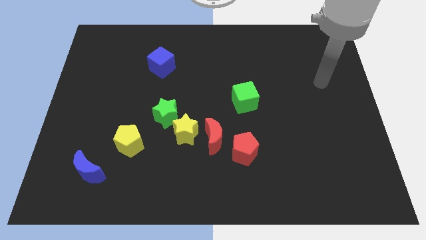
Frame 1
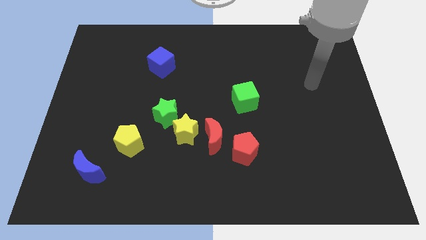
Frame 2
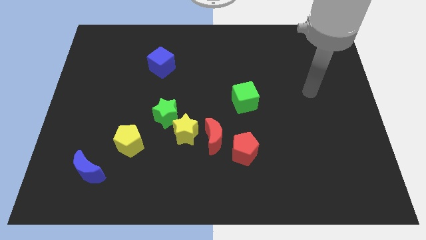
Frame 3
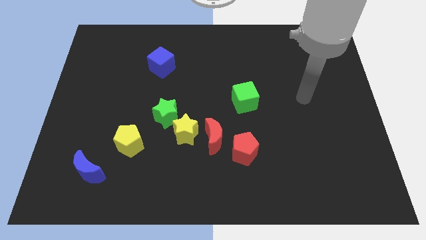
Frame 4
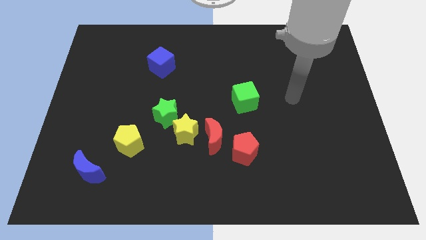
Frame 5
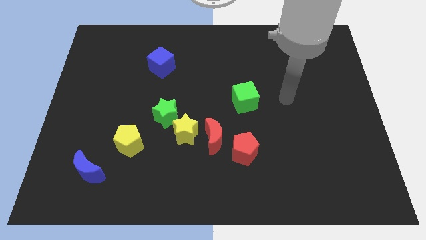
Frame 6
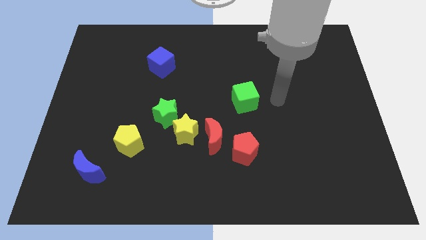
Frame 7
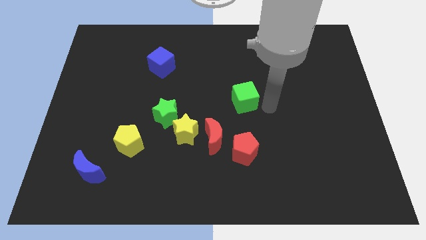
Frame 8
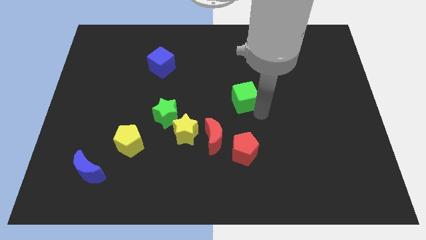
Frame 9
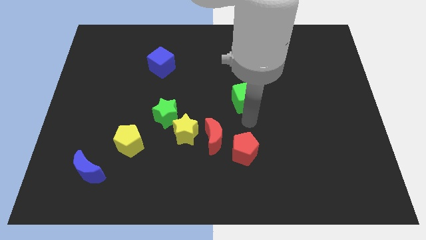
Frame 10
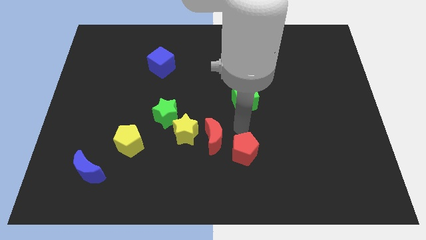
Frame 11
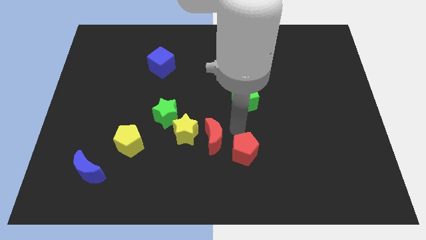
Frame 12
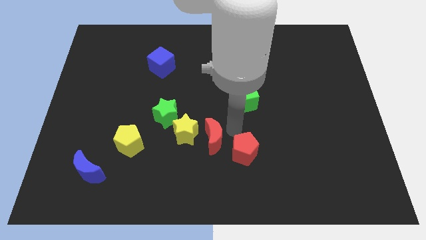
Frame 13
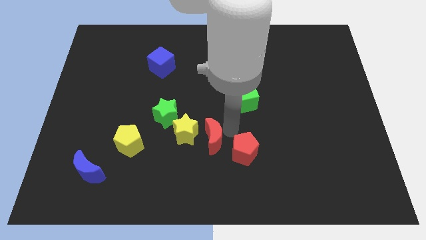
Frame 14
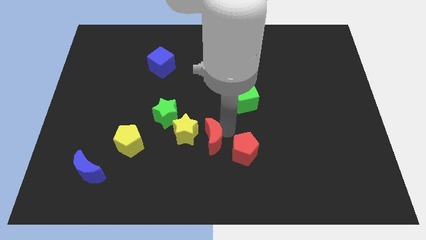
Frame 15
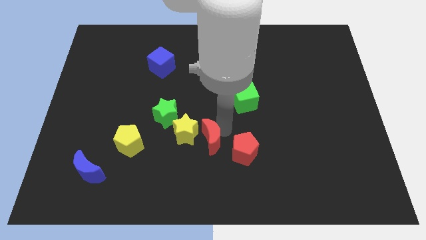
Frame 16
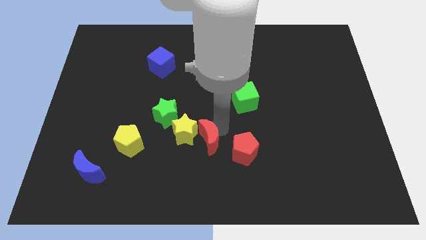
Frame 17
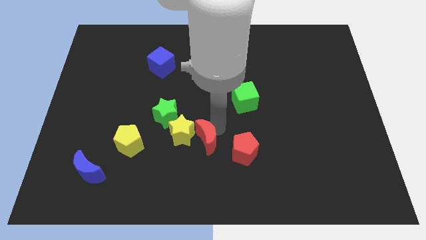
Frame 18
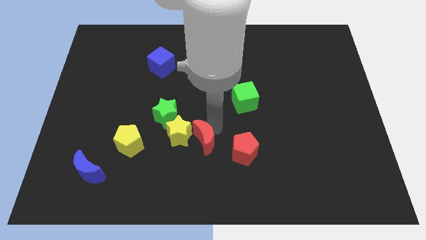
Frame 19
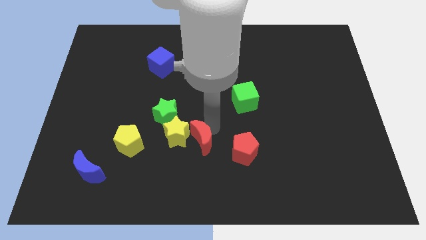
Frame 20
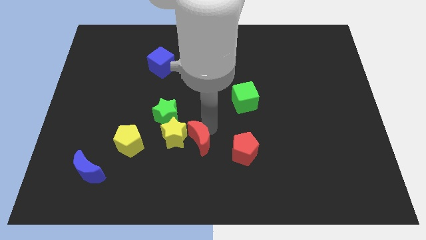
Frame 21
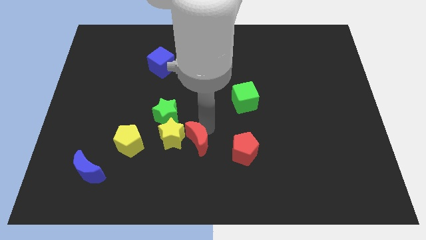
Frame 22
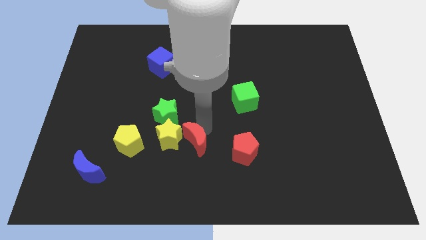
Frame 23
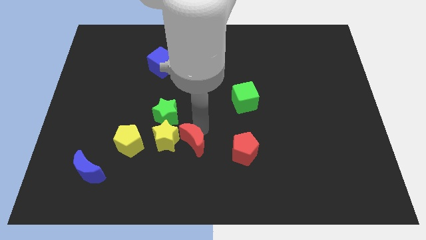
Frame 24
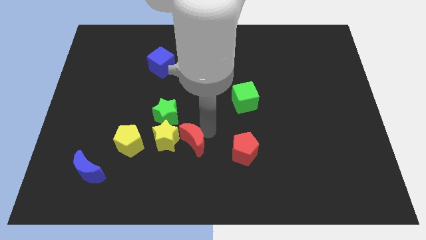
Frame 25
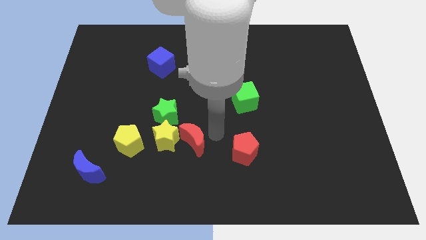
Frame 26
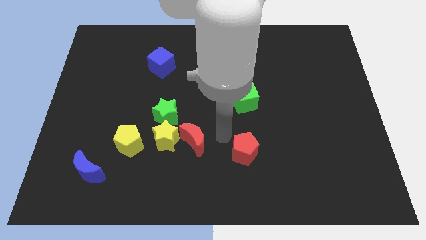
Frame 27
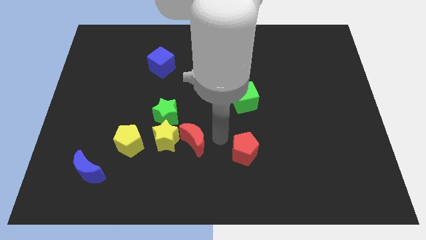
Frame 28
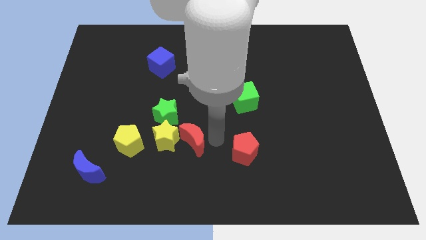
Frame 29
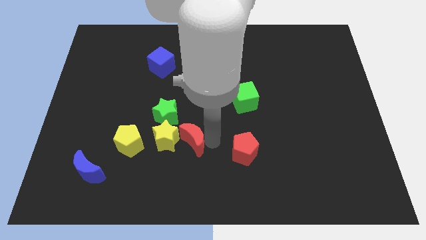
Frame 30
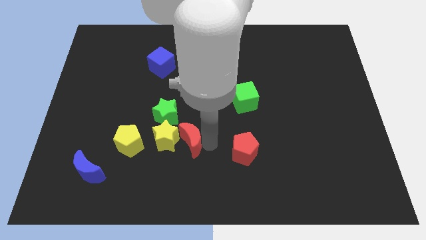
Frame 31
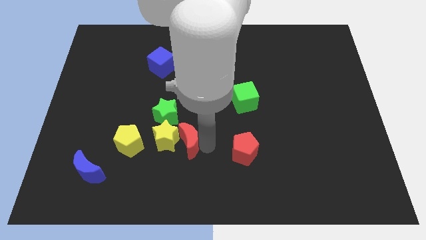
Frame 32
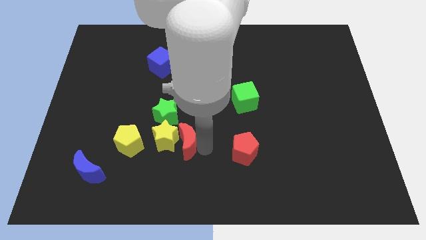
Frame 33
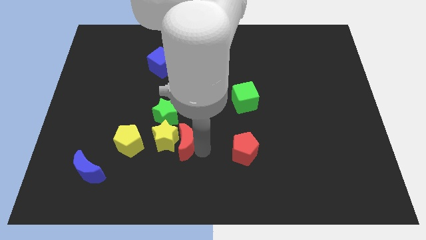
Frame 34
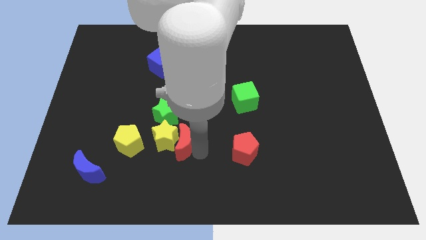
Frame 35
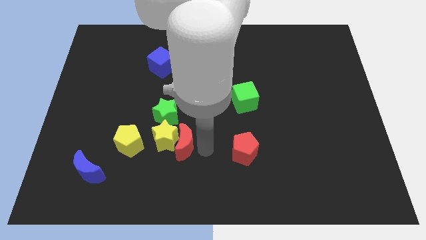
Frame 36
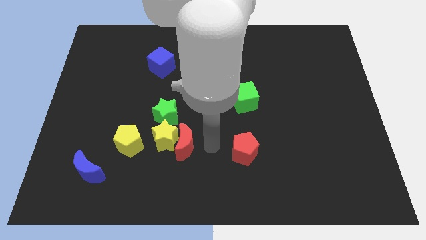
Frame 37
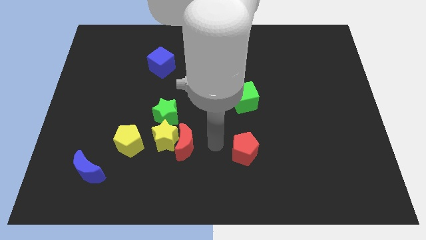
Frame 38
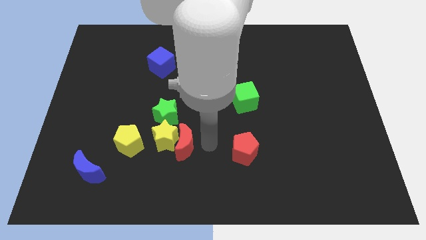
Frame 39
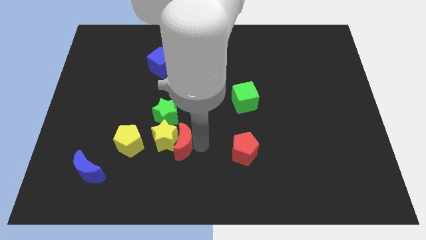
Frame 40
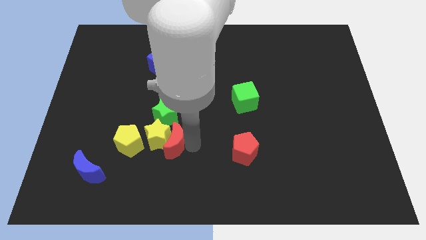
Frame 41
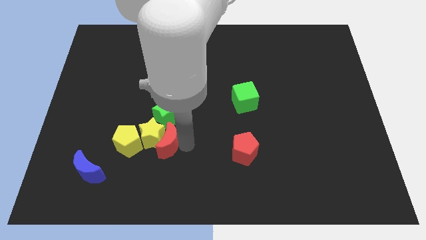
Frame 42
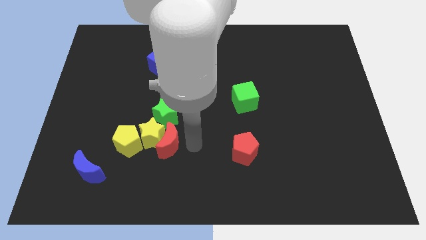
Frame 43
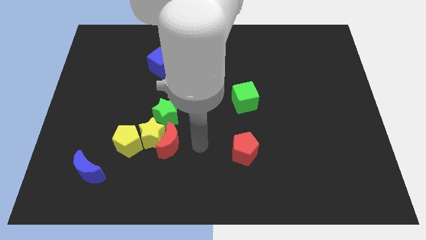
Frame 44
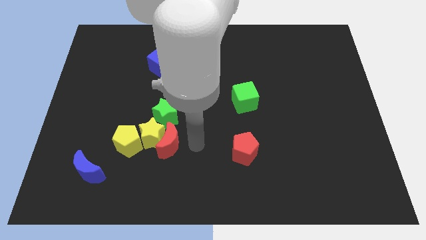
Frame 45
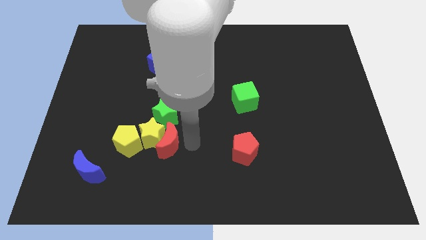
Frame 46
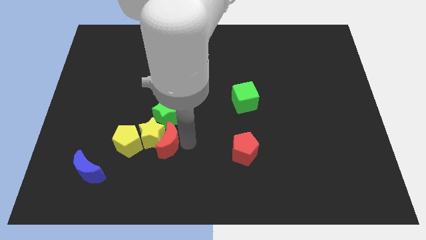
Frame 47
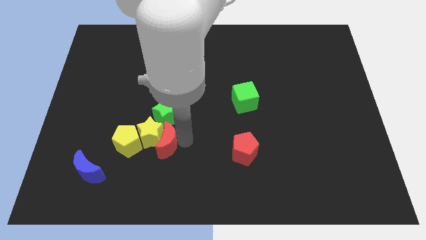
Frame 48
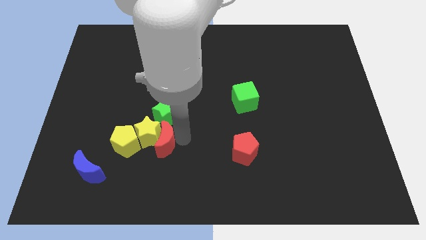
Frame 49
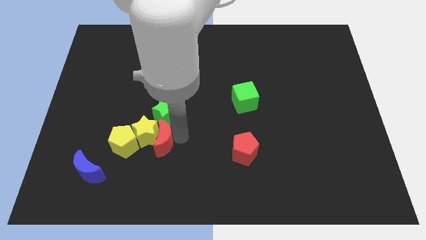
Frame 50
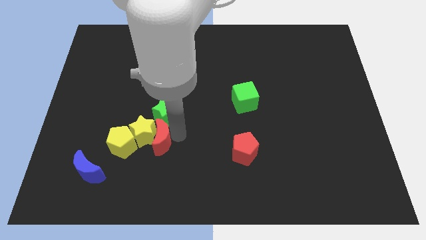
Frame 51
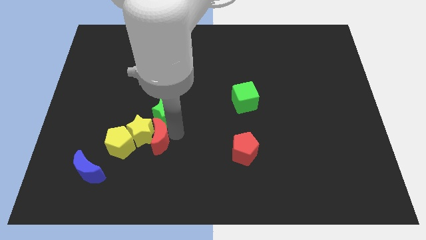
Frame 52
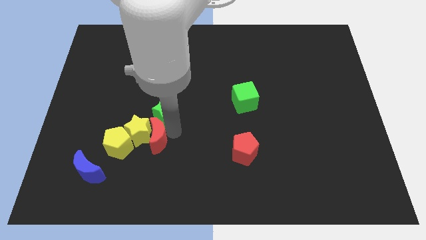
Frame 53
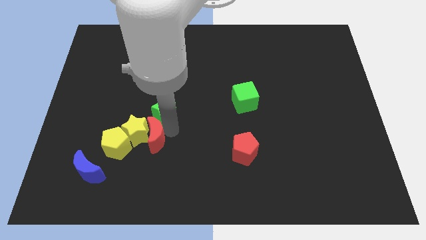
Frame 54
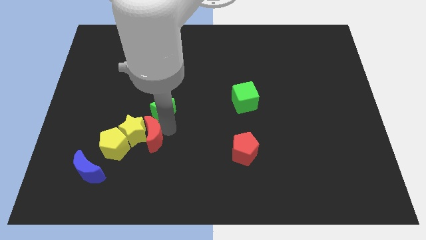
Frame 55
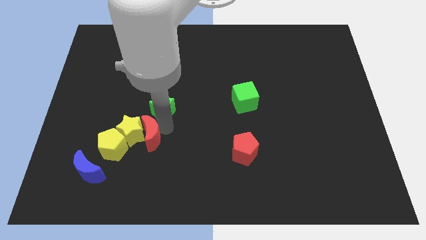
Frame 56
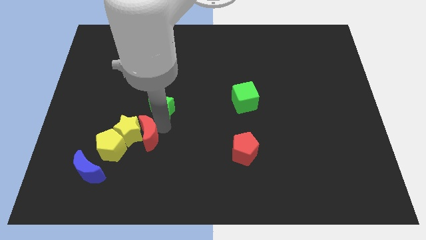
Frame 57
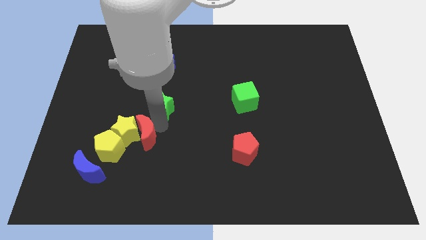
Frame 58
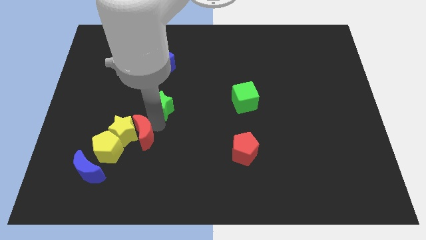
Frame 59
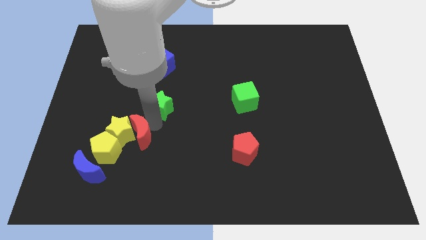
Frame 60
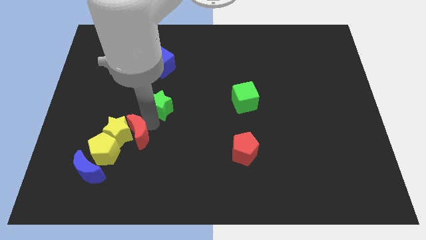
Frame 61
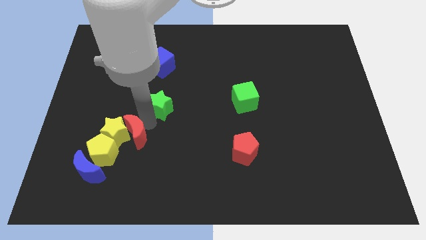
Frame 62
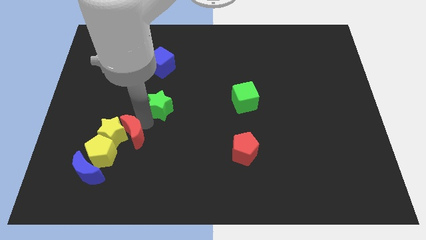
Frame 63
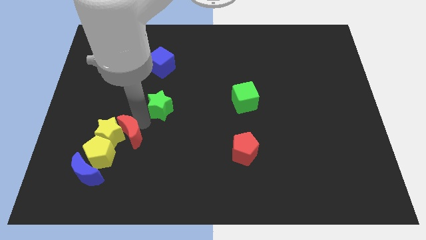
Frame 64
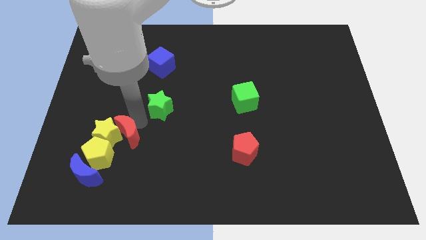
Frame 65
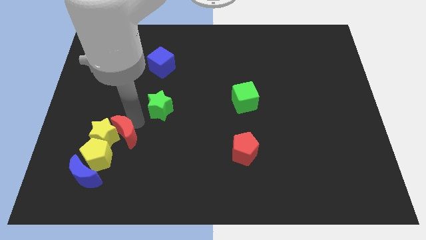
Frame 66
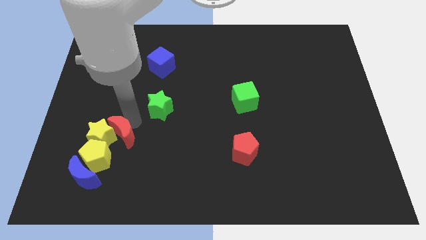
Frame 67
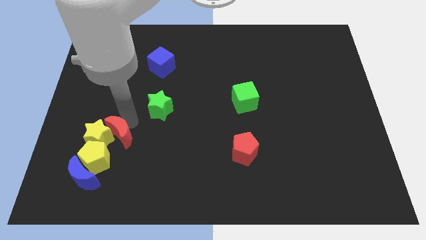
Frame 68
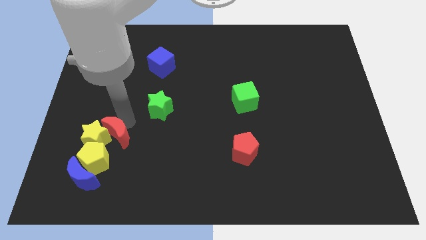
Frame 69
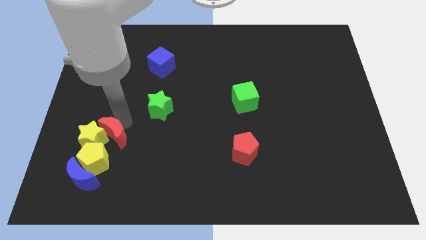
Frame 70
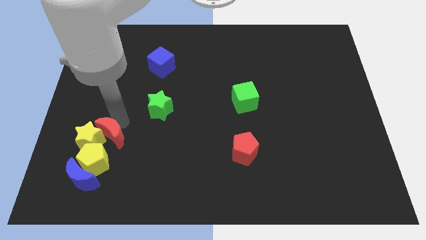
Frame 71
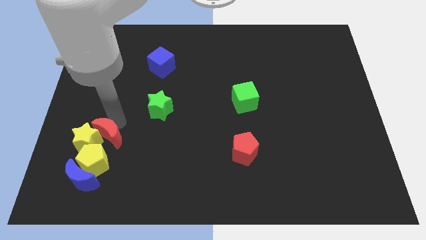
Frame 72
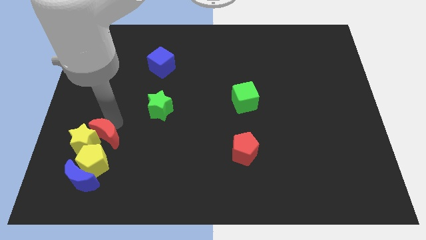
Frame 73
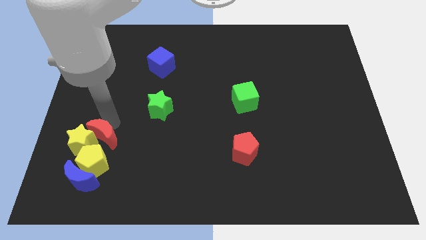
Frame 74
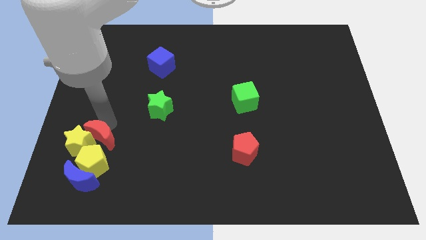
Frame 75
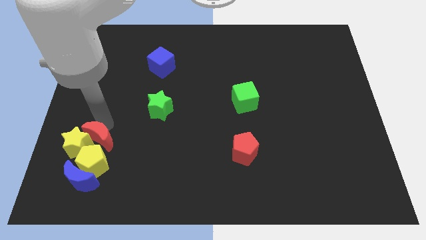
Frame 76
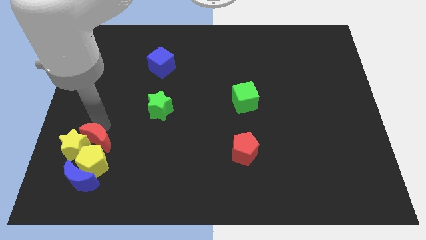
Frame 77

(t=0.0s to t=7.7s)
slide the red moon towards the yellow pentagon
